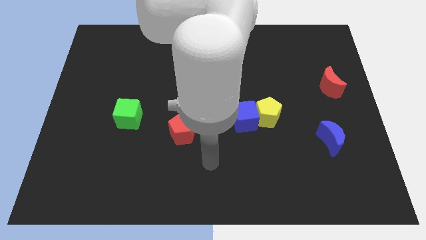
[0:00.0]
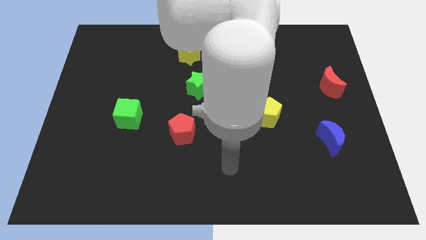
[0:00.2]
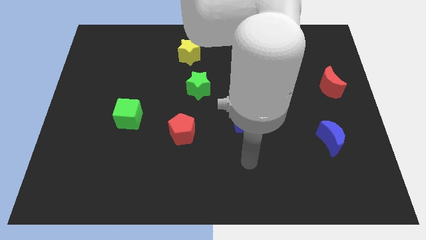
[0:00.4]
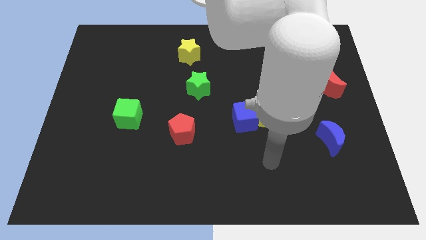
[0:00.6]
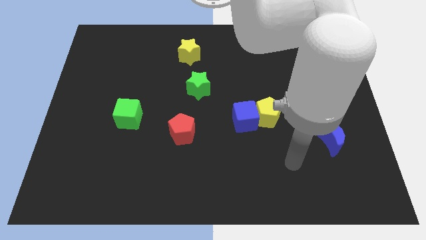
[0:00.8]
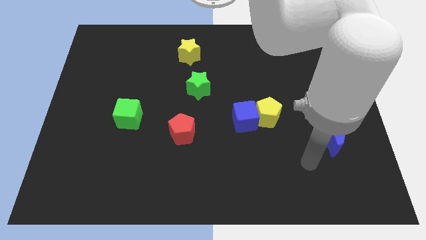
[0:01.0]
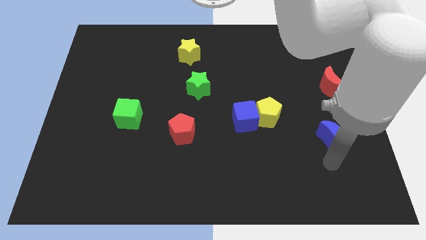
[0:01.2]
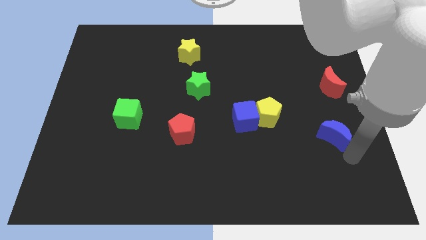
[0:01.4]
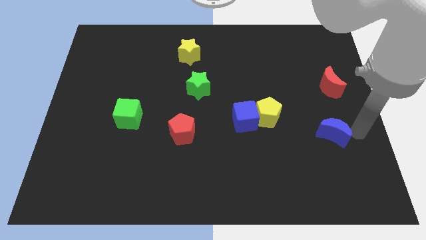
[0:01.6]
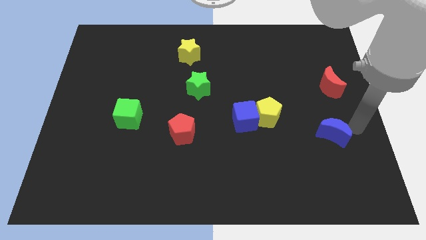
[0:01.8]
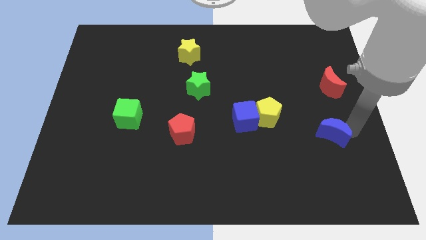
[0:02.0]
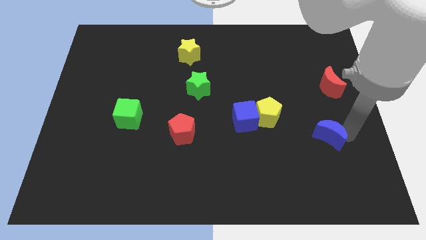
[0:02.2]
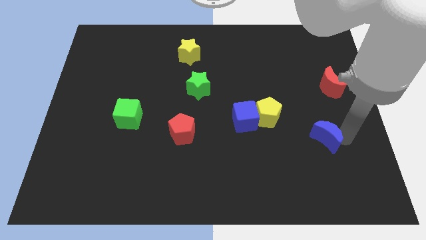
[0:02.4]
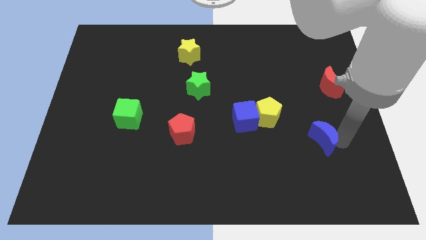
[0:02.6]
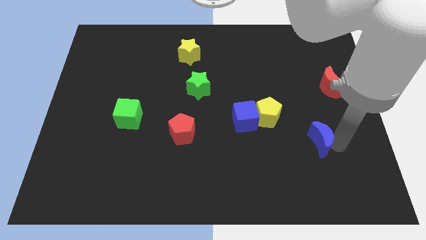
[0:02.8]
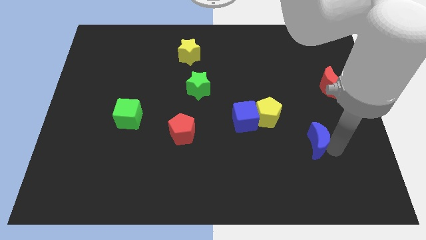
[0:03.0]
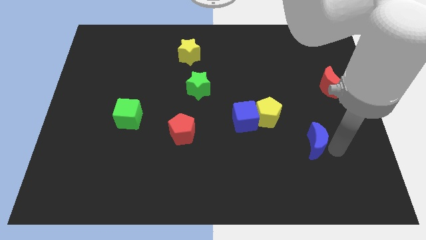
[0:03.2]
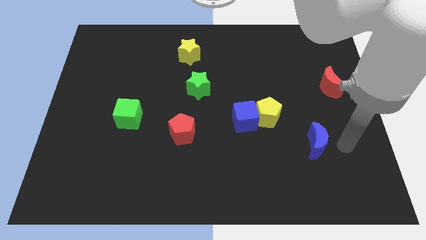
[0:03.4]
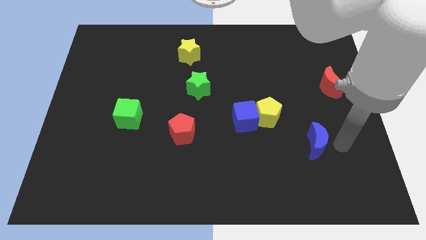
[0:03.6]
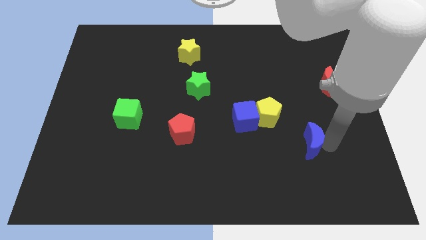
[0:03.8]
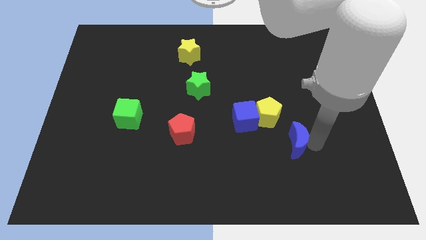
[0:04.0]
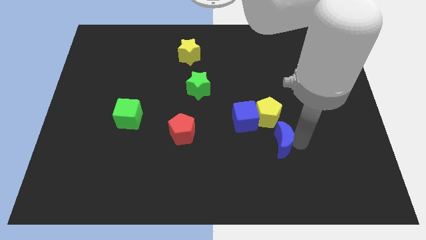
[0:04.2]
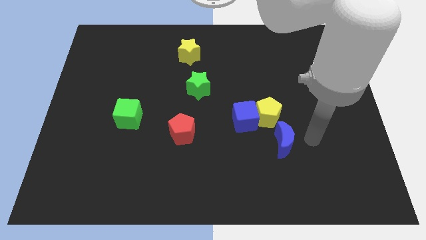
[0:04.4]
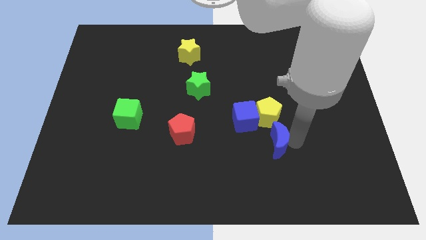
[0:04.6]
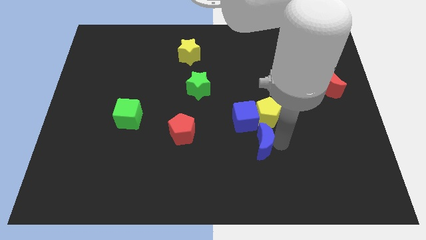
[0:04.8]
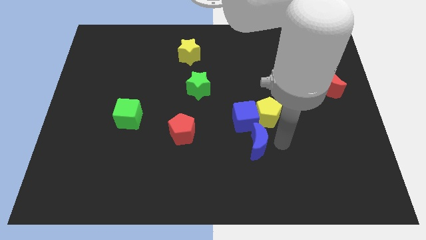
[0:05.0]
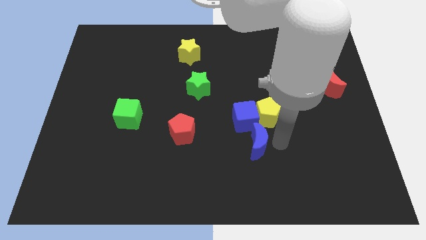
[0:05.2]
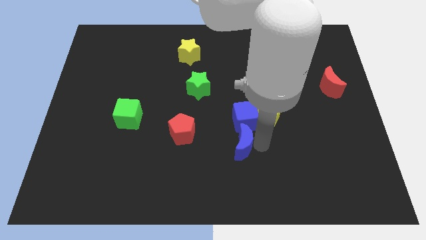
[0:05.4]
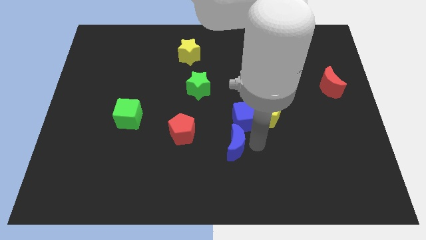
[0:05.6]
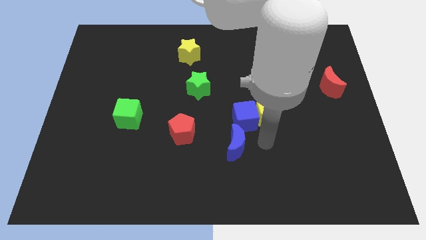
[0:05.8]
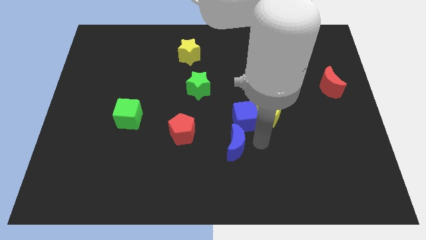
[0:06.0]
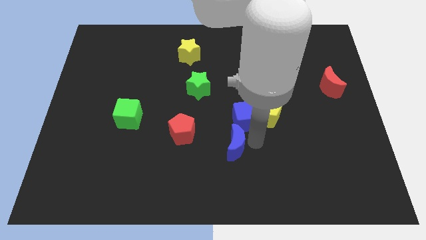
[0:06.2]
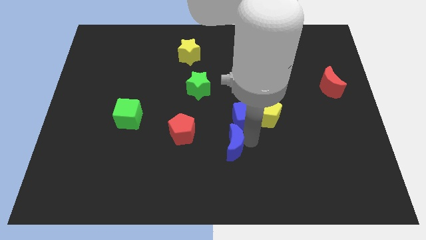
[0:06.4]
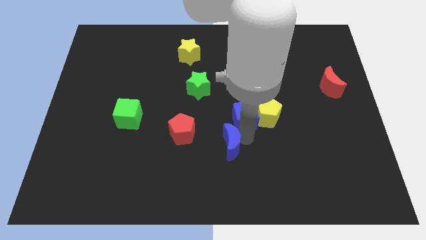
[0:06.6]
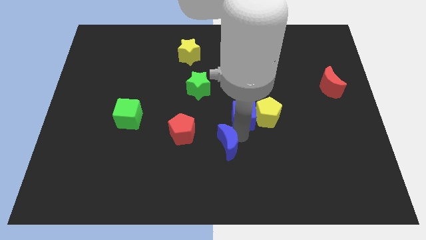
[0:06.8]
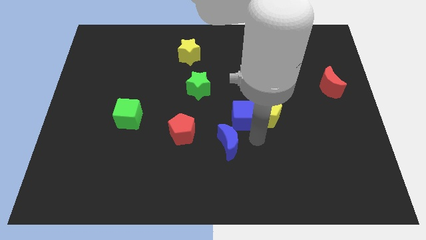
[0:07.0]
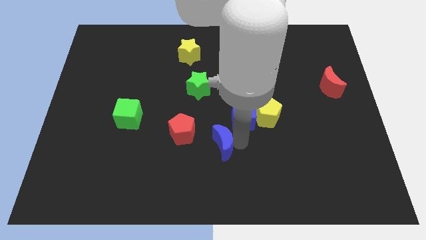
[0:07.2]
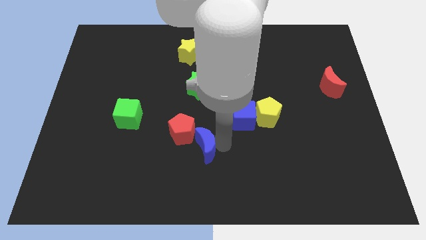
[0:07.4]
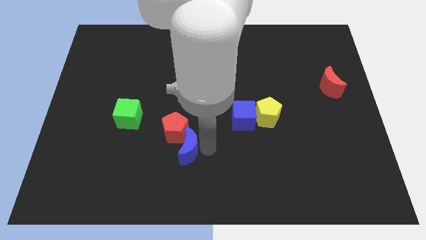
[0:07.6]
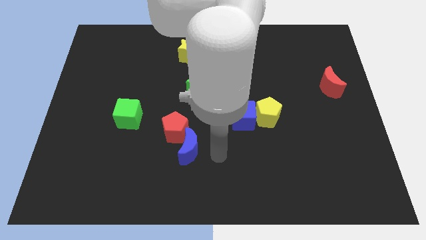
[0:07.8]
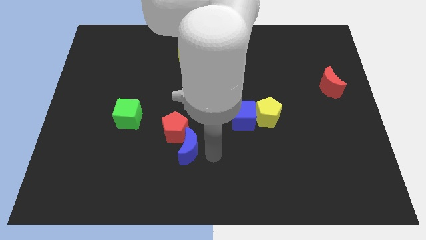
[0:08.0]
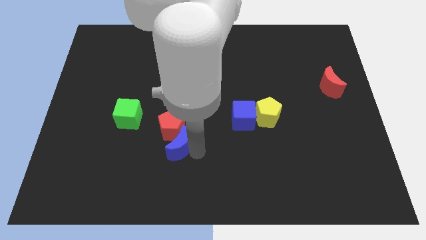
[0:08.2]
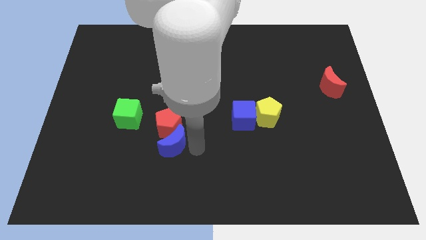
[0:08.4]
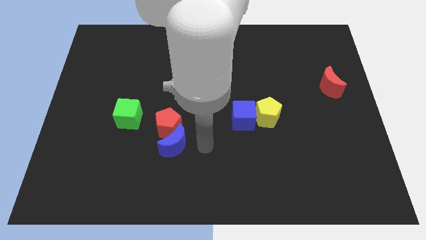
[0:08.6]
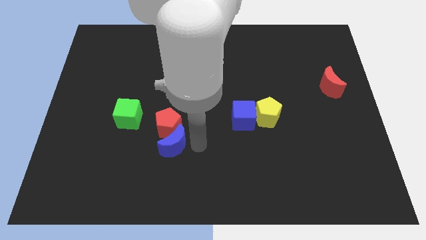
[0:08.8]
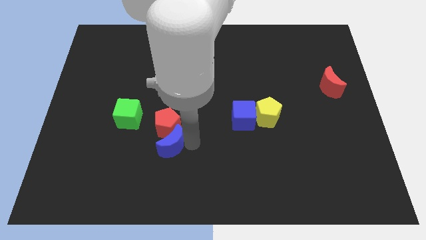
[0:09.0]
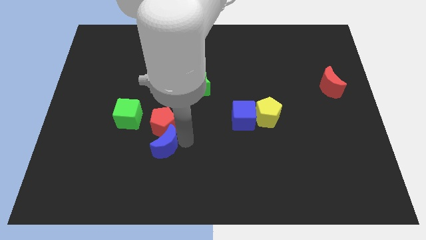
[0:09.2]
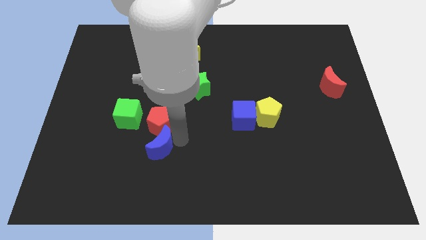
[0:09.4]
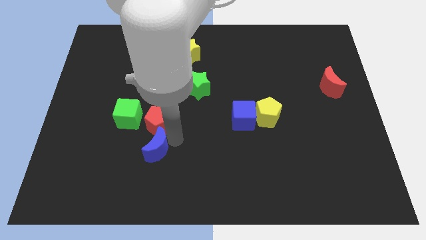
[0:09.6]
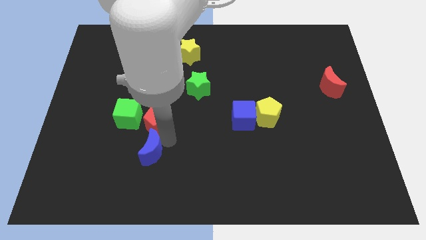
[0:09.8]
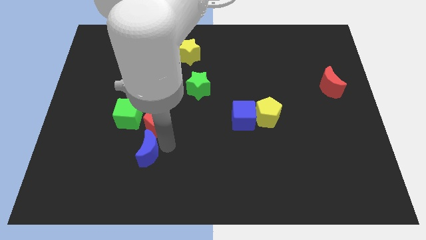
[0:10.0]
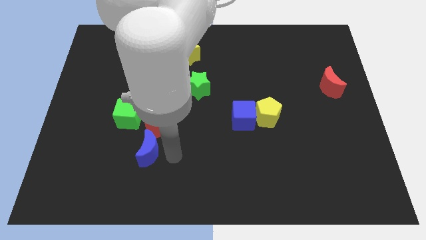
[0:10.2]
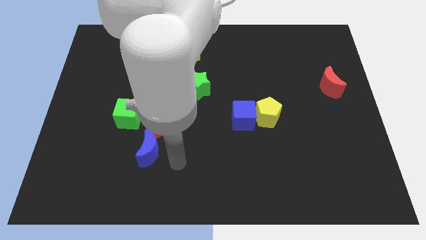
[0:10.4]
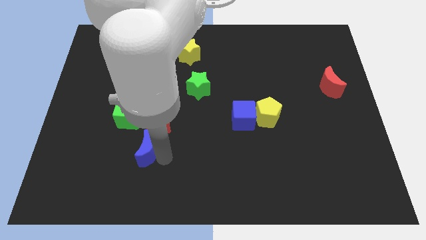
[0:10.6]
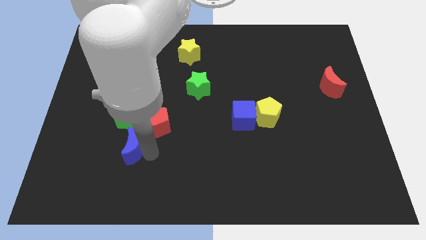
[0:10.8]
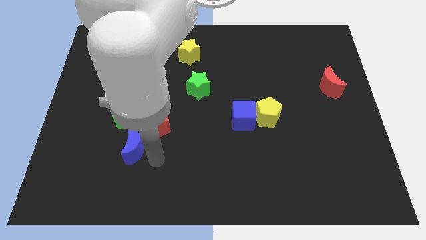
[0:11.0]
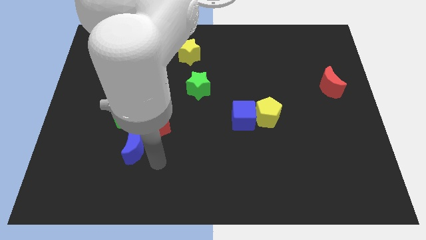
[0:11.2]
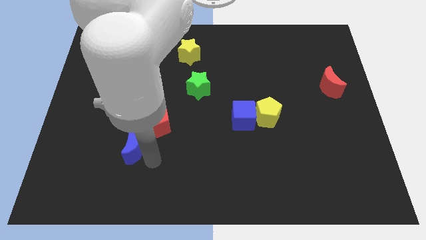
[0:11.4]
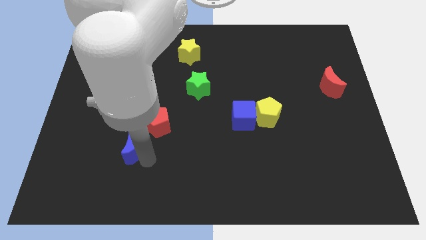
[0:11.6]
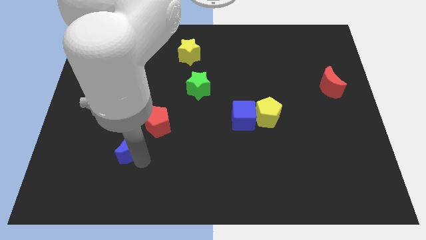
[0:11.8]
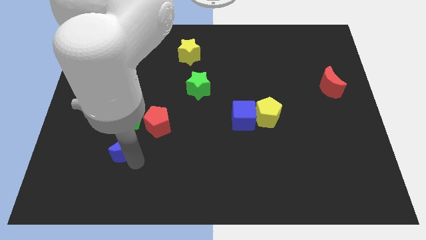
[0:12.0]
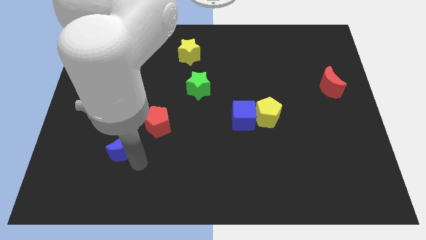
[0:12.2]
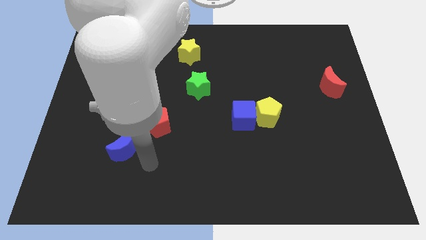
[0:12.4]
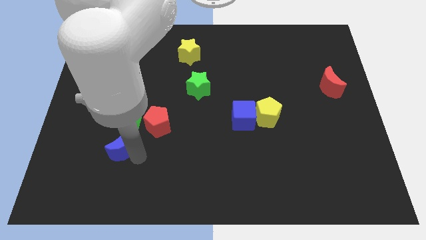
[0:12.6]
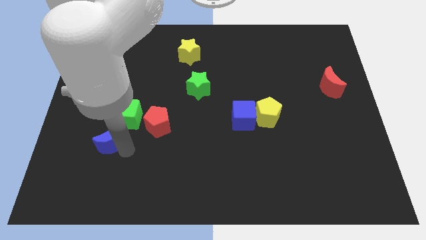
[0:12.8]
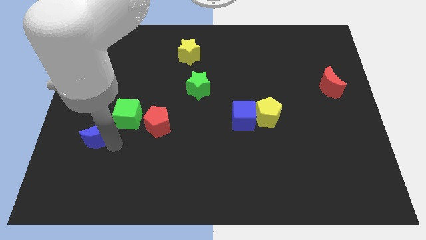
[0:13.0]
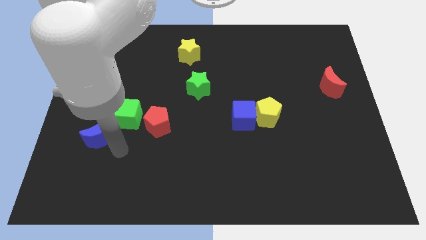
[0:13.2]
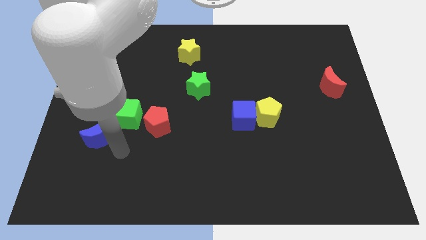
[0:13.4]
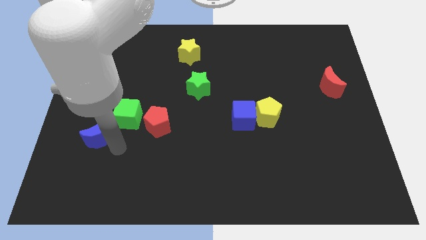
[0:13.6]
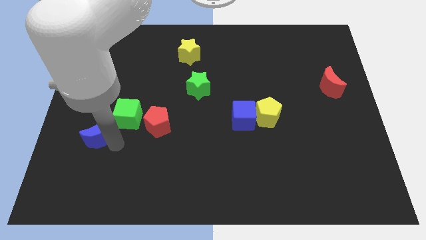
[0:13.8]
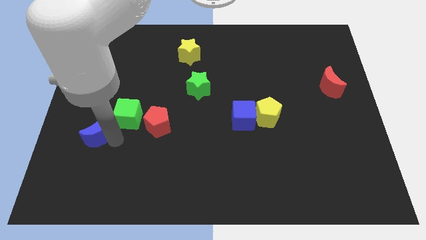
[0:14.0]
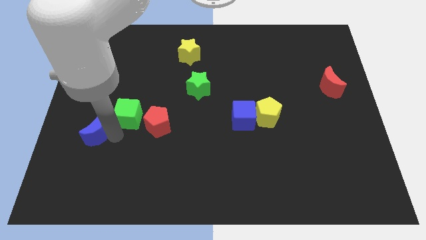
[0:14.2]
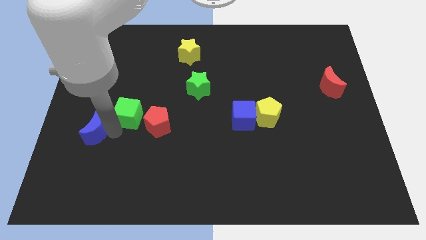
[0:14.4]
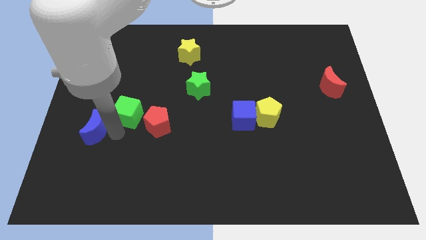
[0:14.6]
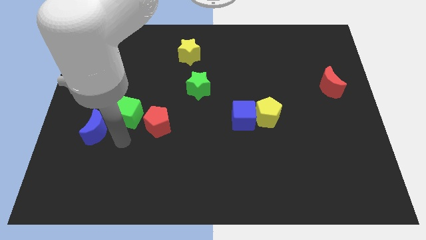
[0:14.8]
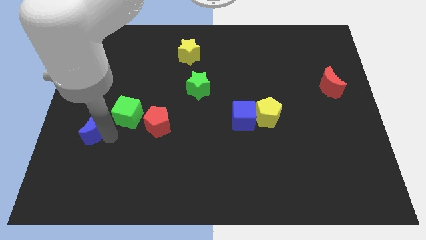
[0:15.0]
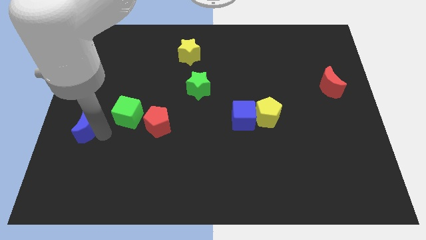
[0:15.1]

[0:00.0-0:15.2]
push the blue moon to the left side of the board
